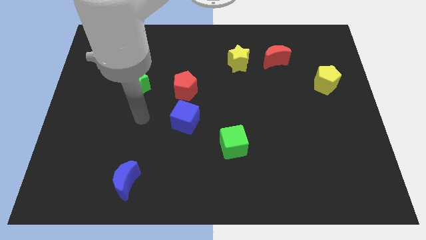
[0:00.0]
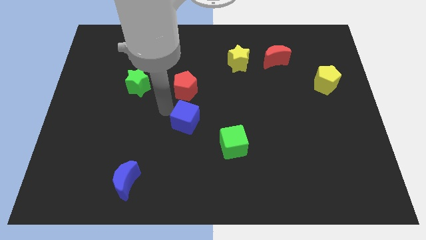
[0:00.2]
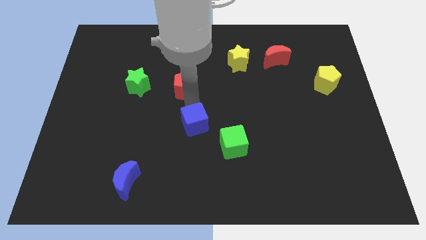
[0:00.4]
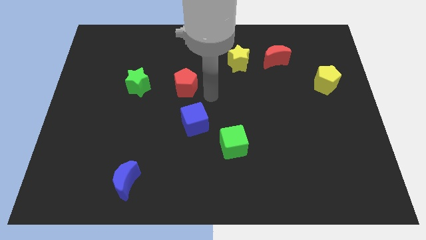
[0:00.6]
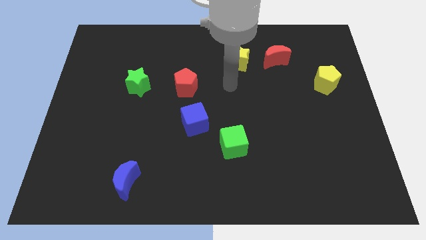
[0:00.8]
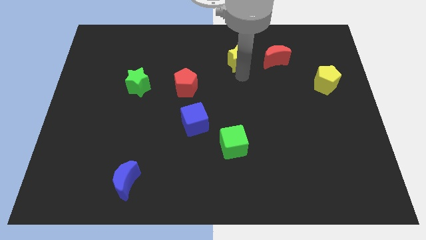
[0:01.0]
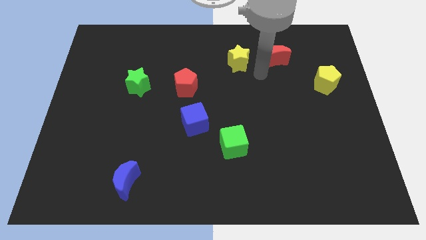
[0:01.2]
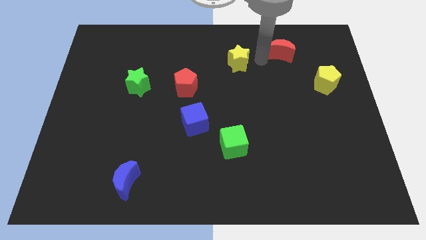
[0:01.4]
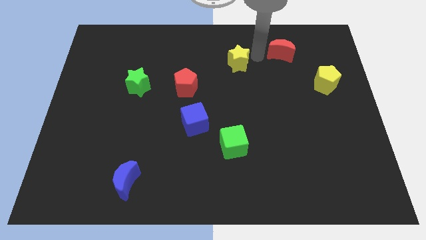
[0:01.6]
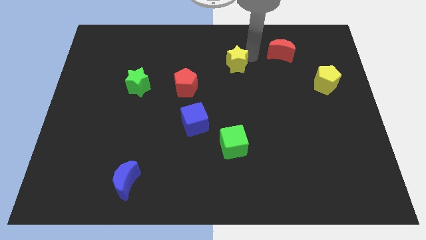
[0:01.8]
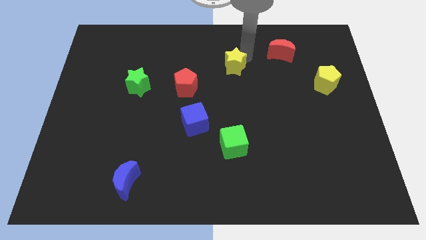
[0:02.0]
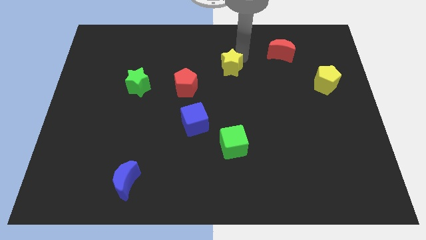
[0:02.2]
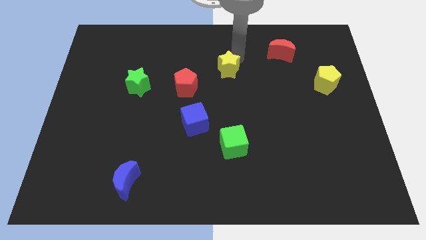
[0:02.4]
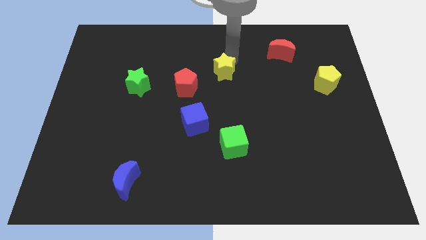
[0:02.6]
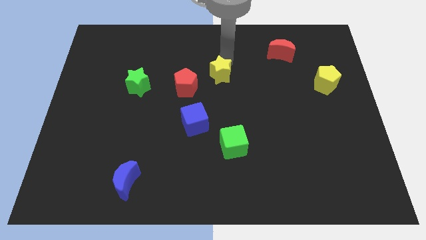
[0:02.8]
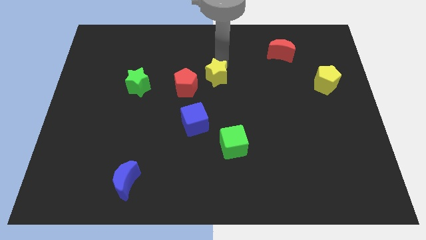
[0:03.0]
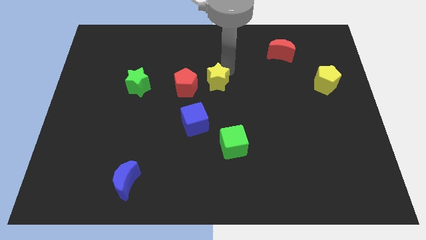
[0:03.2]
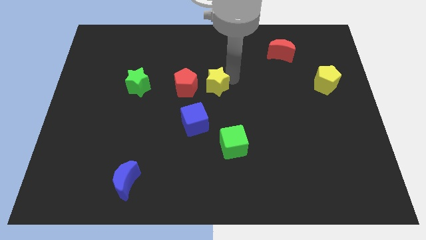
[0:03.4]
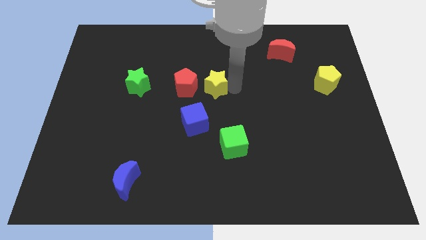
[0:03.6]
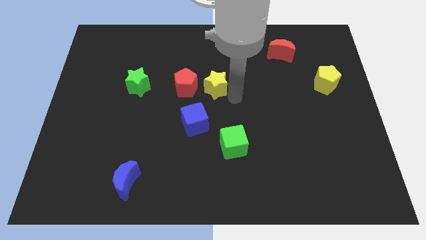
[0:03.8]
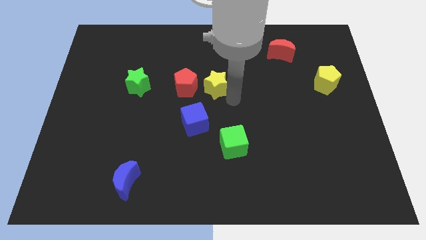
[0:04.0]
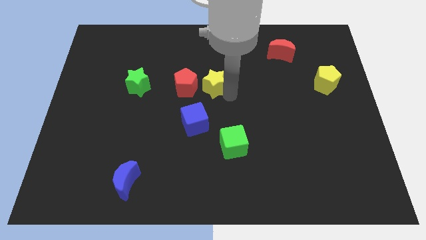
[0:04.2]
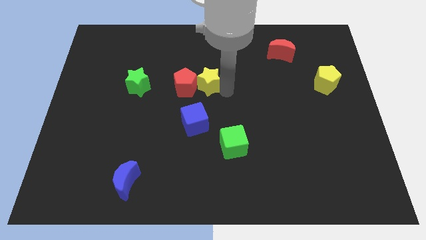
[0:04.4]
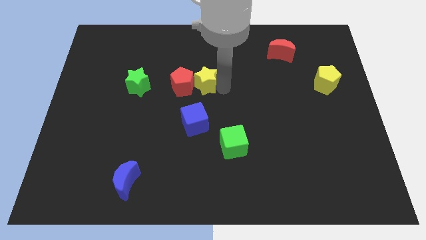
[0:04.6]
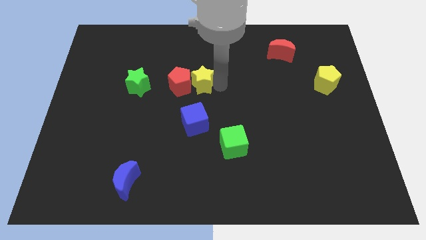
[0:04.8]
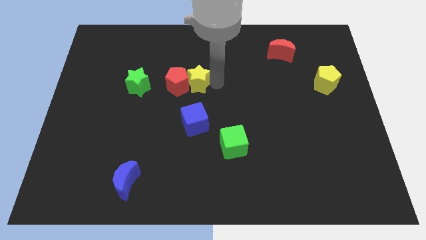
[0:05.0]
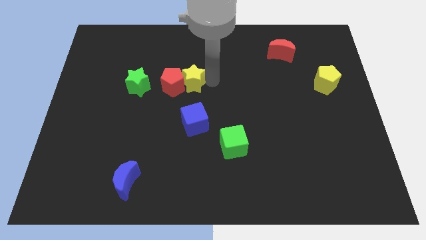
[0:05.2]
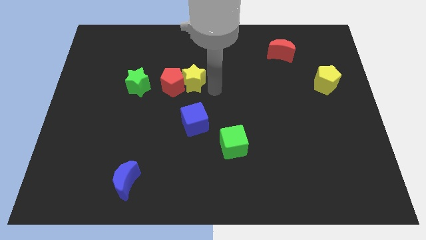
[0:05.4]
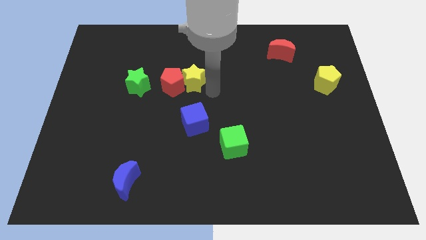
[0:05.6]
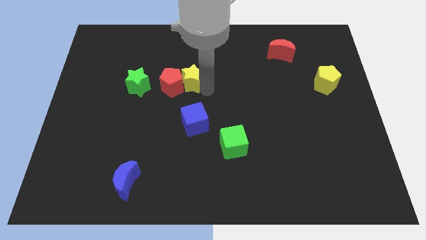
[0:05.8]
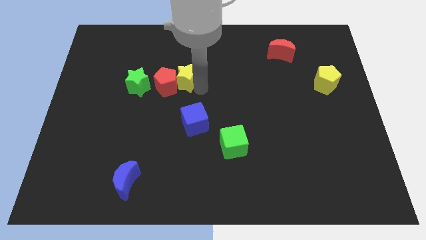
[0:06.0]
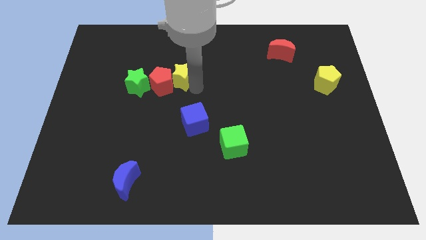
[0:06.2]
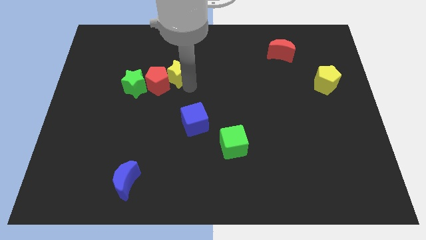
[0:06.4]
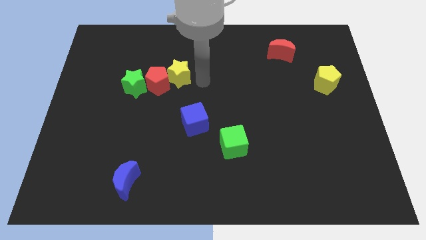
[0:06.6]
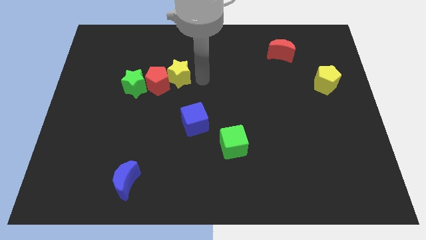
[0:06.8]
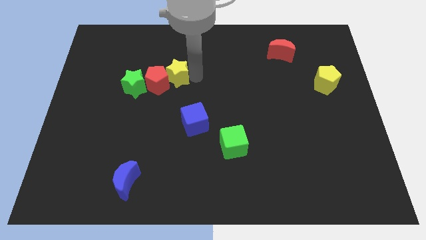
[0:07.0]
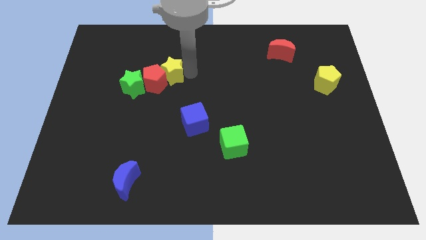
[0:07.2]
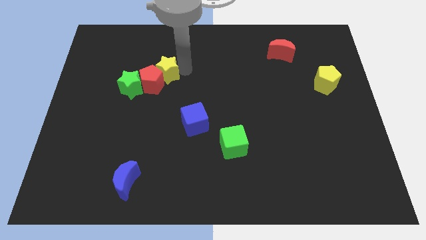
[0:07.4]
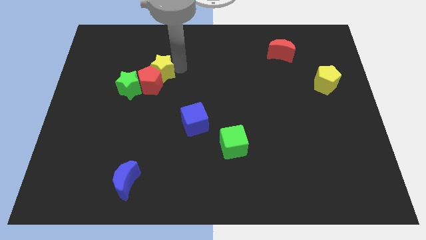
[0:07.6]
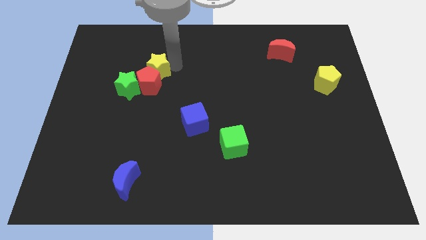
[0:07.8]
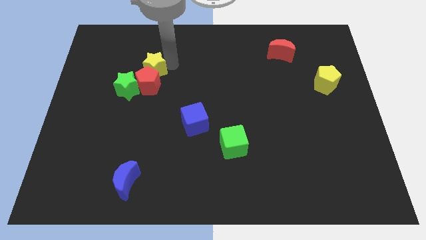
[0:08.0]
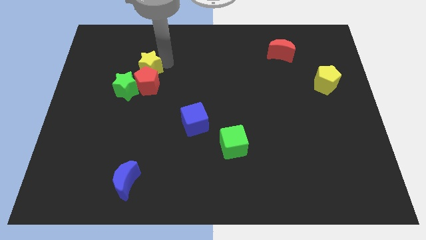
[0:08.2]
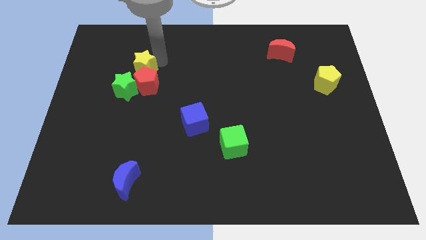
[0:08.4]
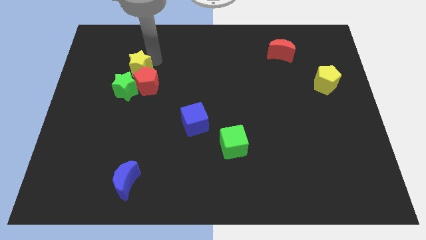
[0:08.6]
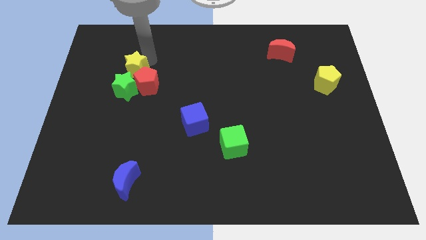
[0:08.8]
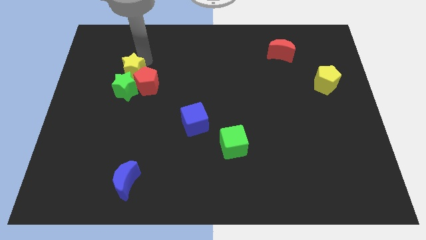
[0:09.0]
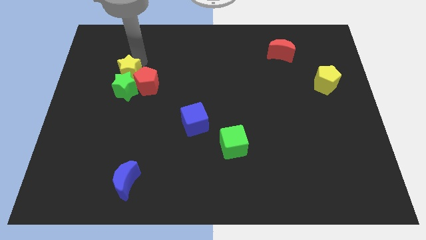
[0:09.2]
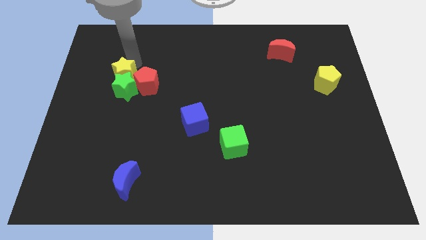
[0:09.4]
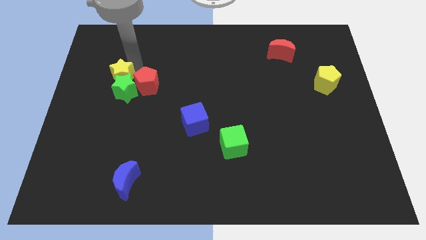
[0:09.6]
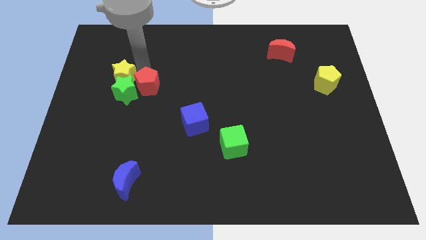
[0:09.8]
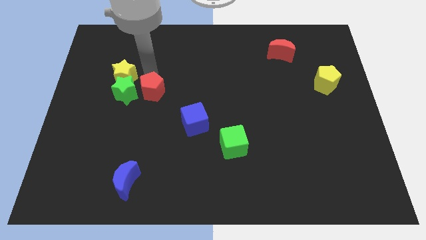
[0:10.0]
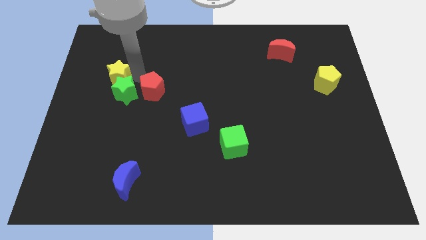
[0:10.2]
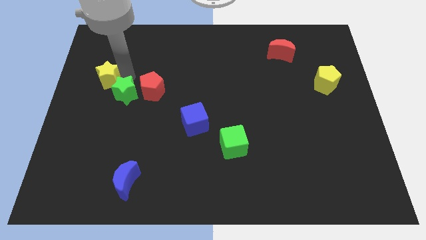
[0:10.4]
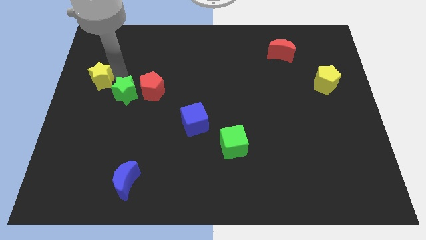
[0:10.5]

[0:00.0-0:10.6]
slide the yellow star to the center left
